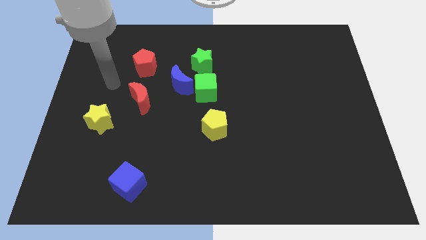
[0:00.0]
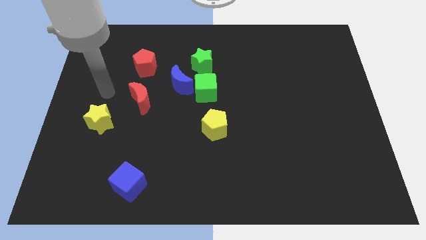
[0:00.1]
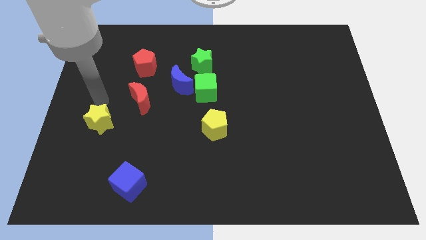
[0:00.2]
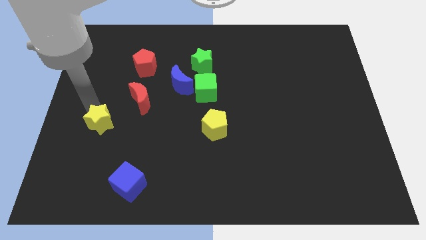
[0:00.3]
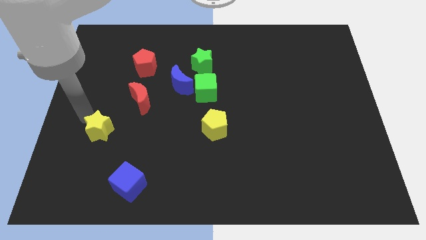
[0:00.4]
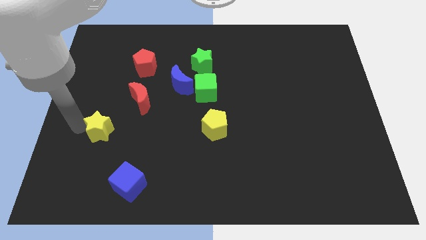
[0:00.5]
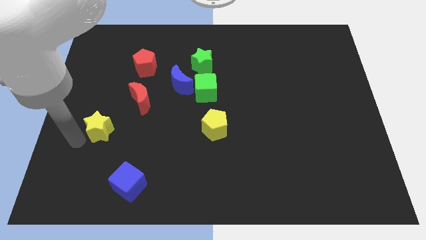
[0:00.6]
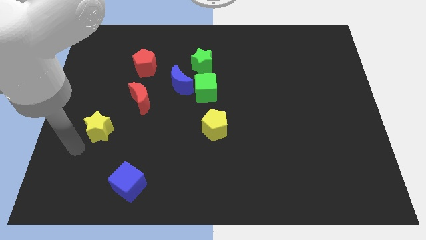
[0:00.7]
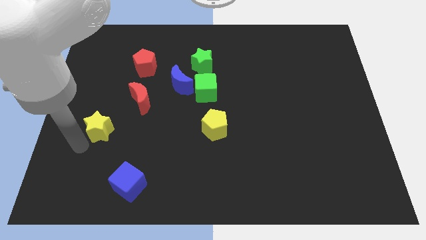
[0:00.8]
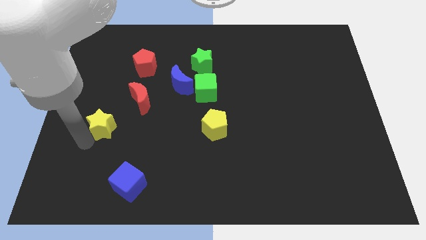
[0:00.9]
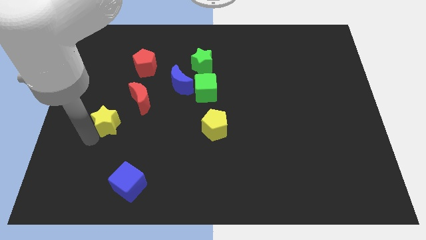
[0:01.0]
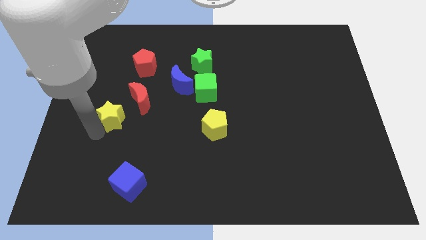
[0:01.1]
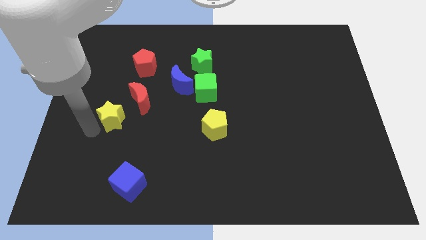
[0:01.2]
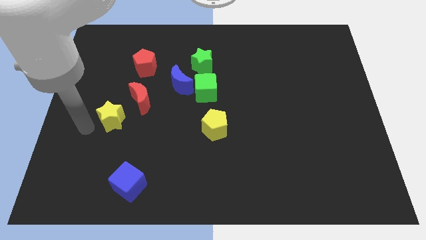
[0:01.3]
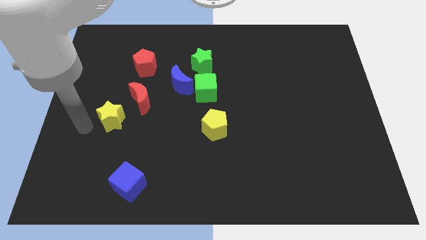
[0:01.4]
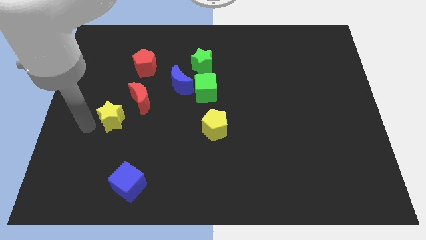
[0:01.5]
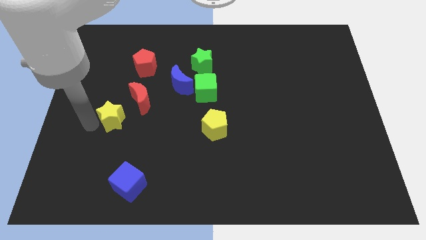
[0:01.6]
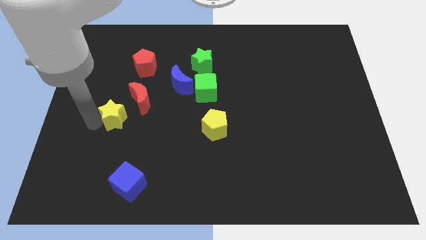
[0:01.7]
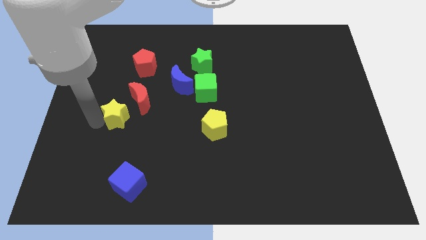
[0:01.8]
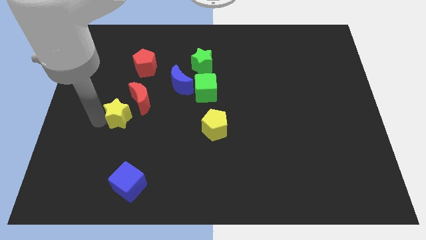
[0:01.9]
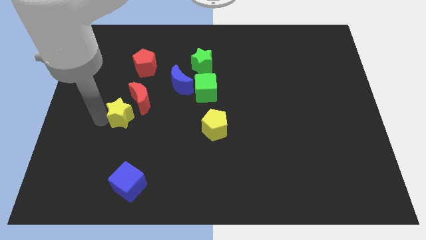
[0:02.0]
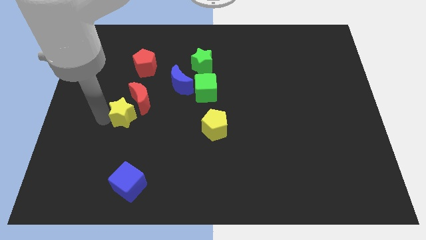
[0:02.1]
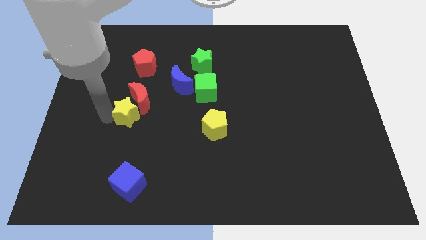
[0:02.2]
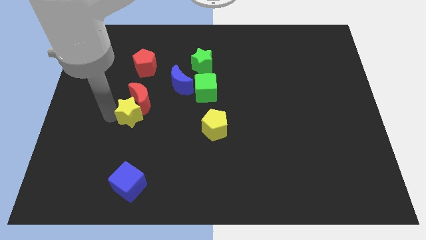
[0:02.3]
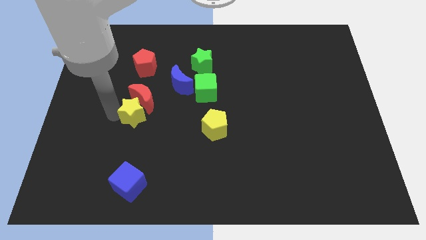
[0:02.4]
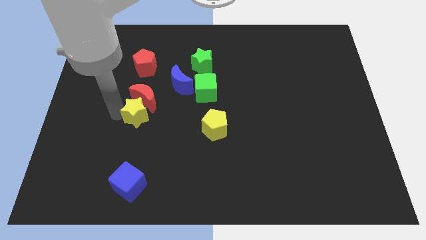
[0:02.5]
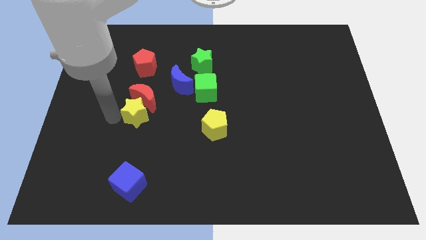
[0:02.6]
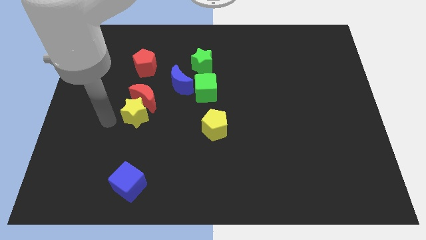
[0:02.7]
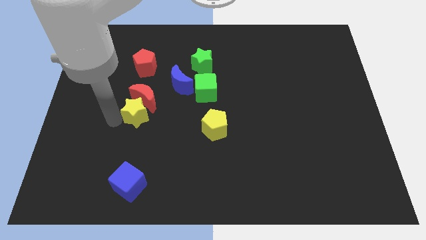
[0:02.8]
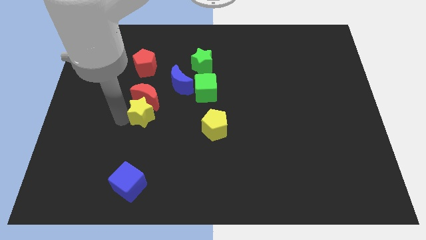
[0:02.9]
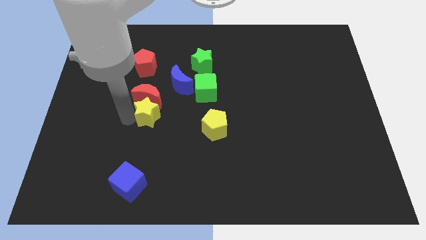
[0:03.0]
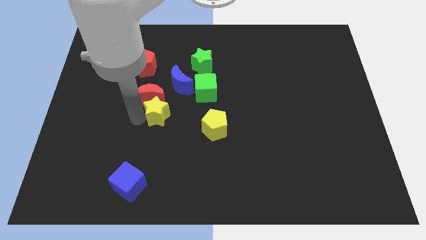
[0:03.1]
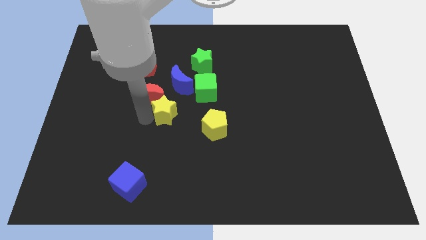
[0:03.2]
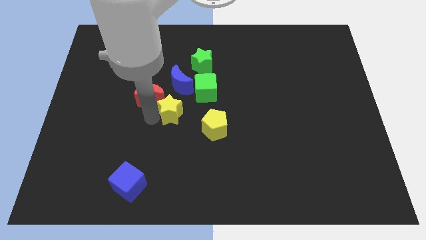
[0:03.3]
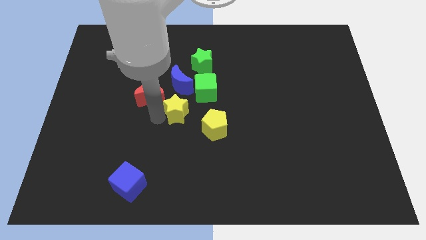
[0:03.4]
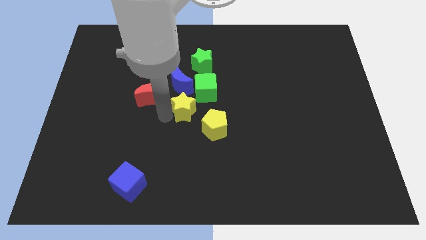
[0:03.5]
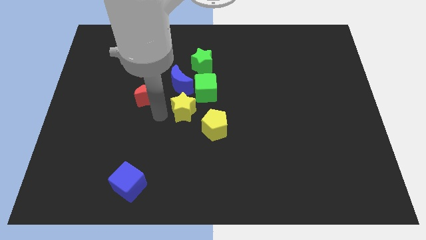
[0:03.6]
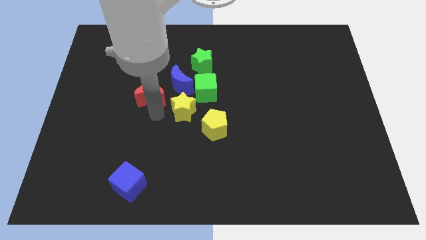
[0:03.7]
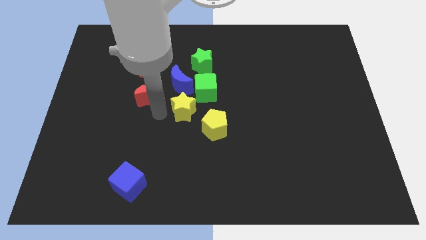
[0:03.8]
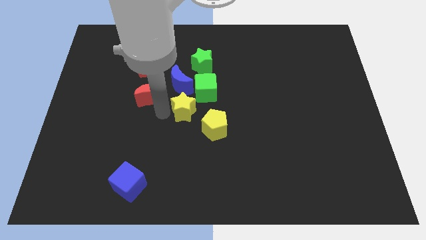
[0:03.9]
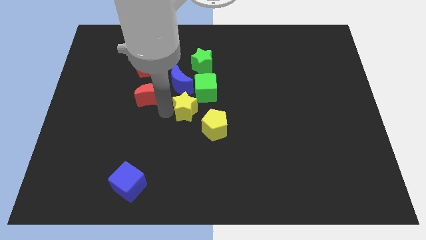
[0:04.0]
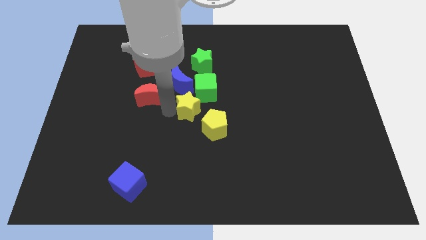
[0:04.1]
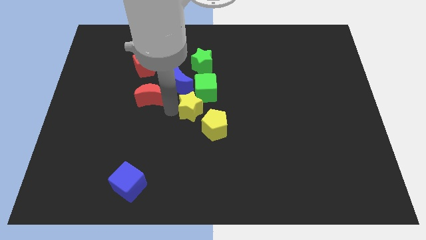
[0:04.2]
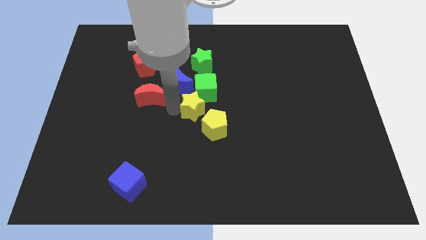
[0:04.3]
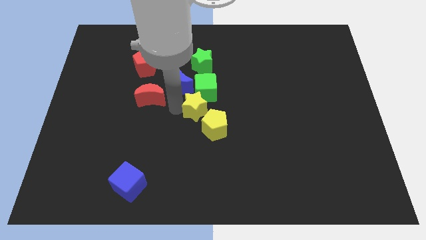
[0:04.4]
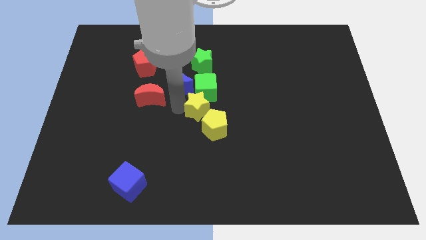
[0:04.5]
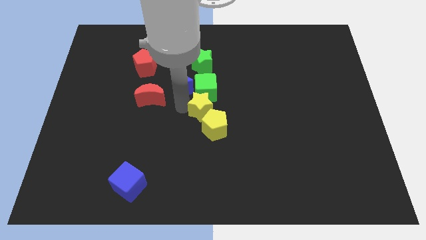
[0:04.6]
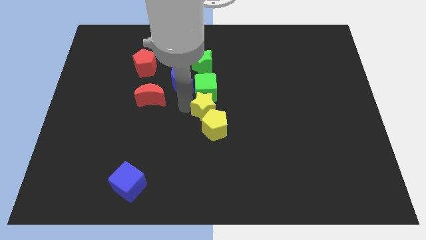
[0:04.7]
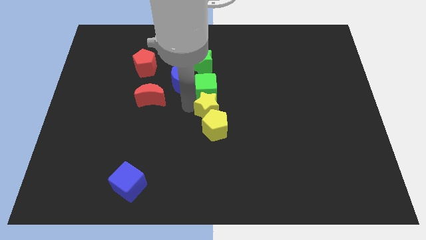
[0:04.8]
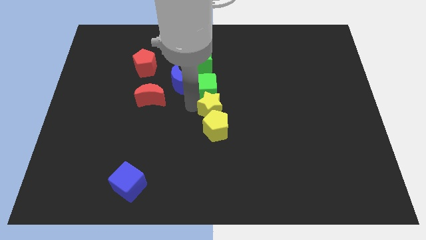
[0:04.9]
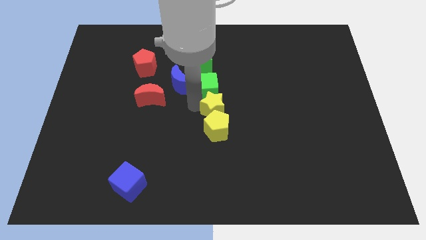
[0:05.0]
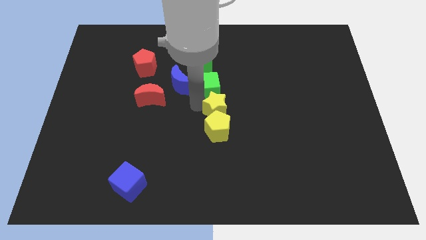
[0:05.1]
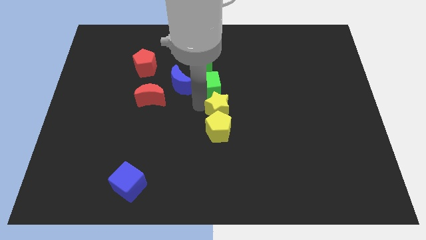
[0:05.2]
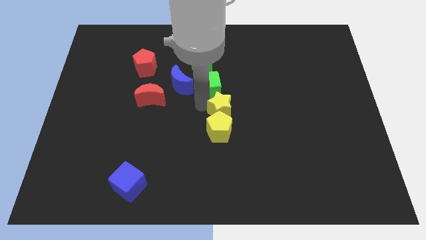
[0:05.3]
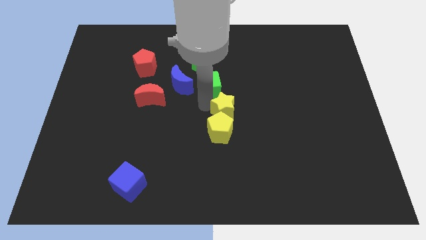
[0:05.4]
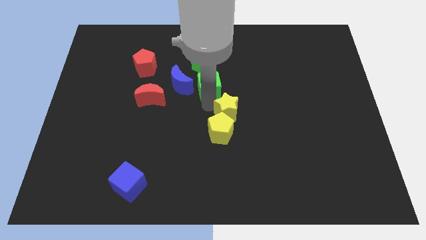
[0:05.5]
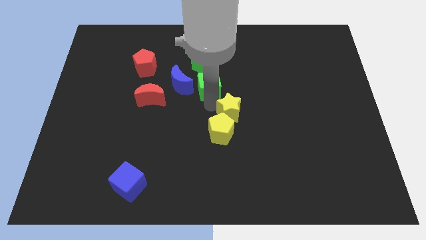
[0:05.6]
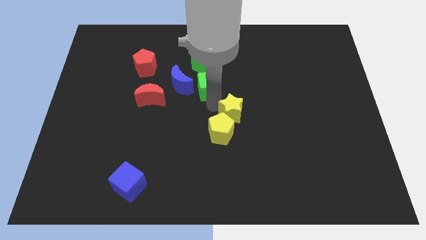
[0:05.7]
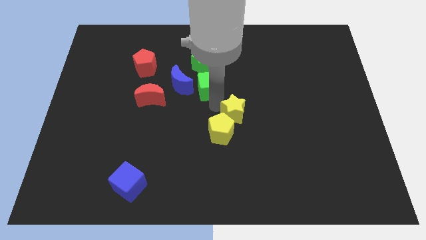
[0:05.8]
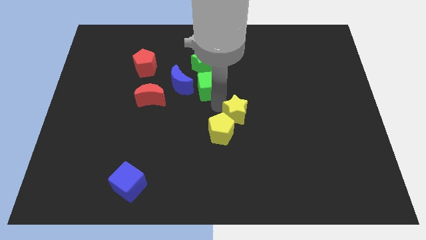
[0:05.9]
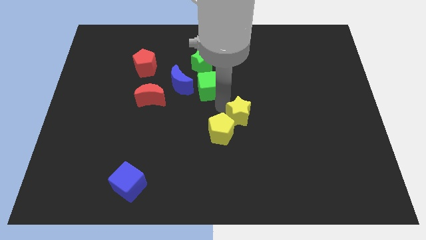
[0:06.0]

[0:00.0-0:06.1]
put the yellow star right of the yellow pentagon

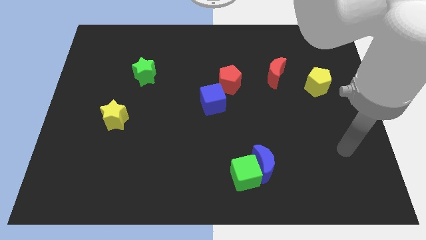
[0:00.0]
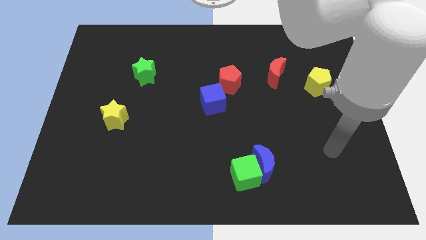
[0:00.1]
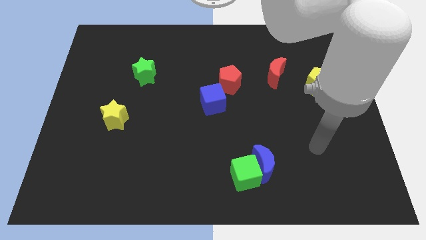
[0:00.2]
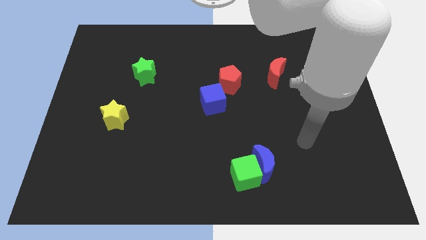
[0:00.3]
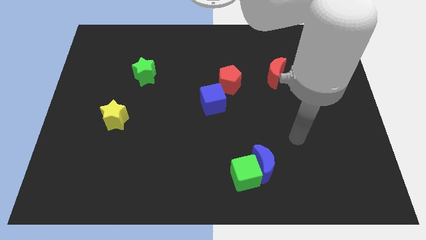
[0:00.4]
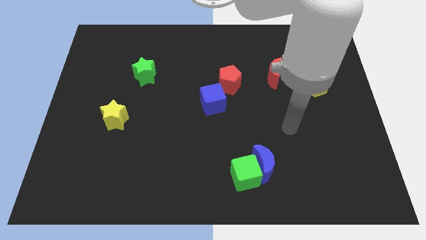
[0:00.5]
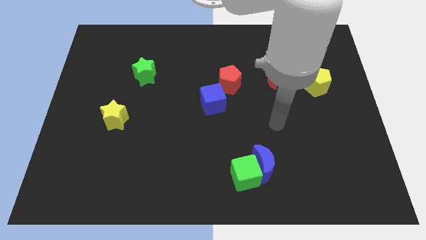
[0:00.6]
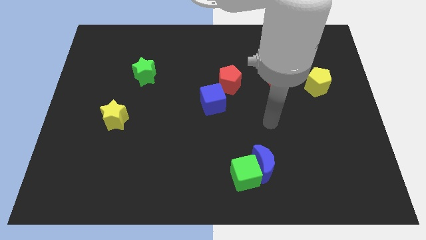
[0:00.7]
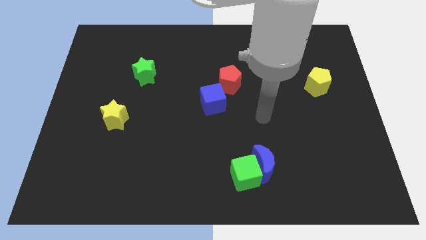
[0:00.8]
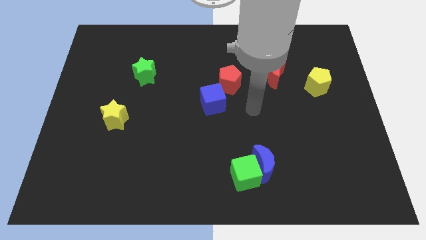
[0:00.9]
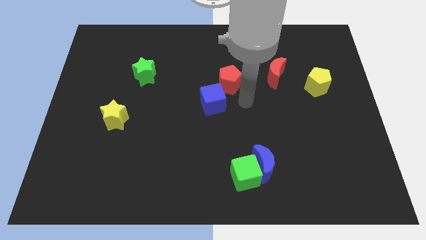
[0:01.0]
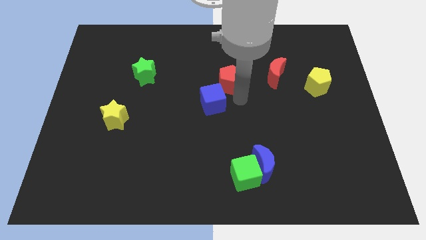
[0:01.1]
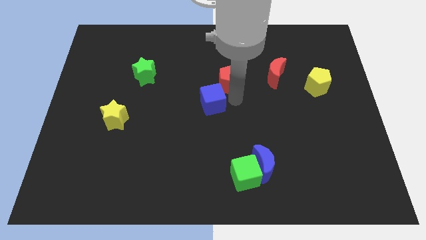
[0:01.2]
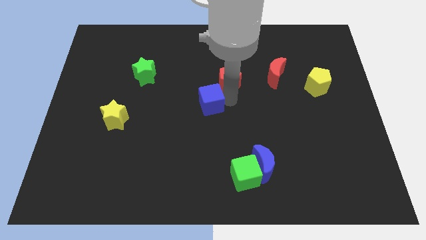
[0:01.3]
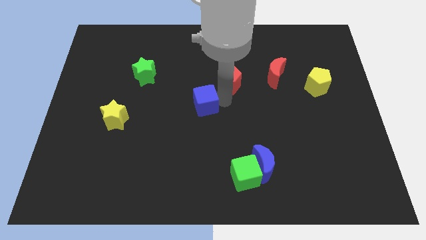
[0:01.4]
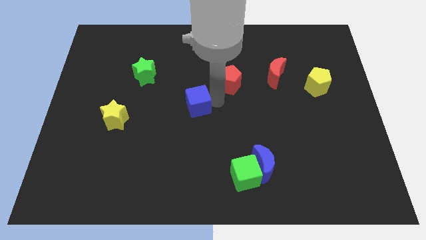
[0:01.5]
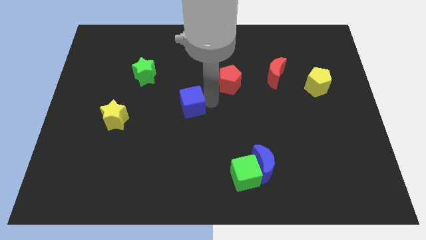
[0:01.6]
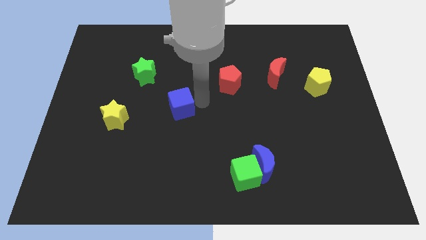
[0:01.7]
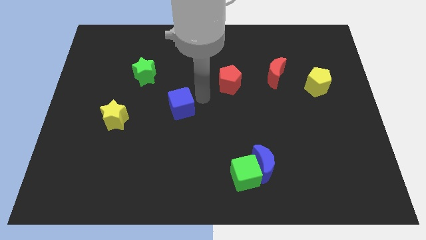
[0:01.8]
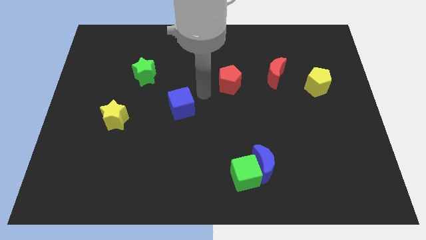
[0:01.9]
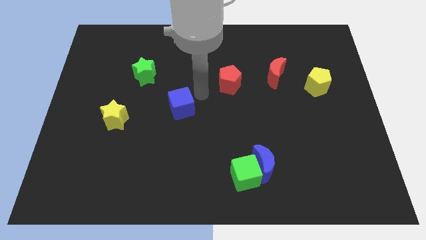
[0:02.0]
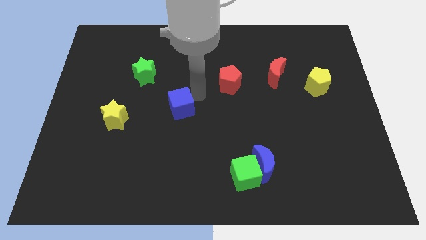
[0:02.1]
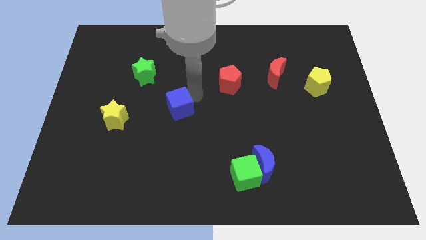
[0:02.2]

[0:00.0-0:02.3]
put the blue cube to the right of the yellow star
